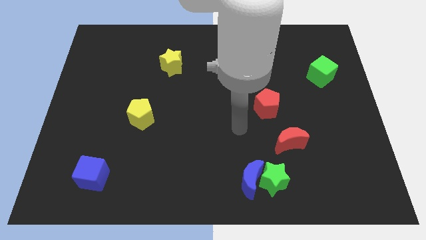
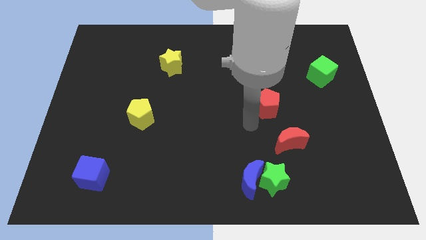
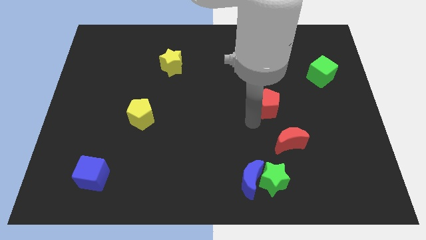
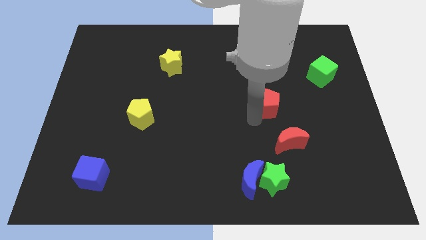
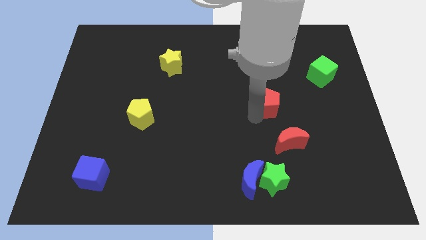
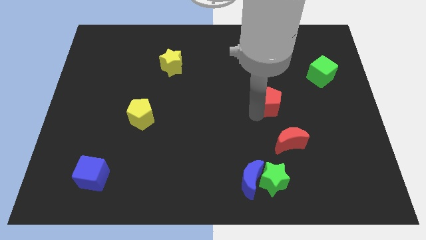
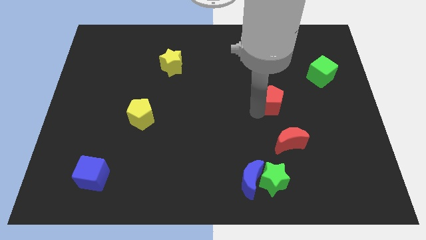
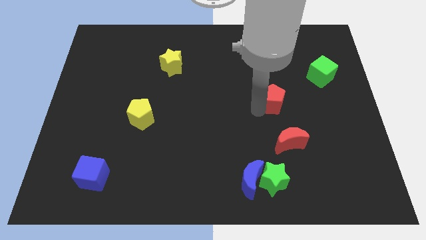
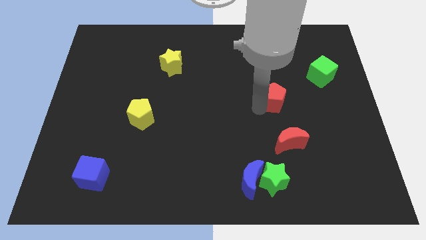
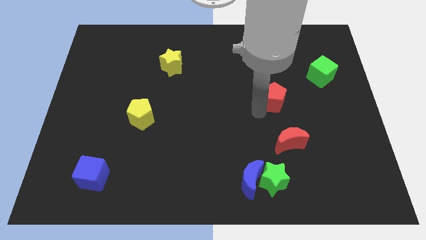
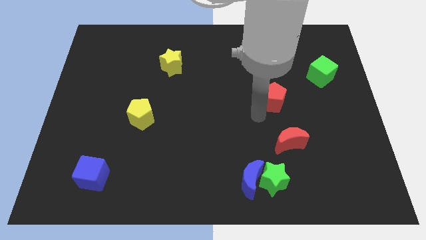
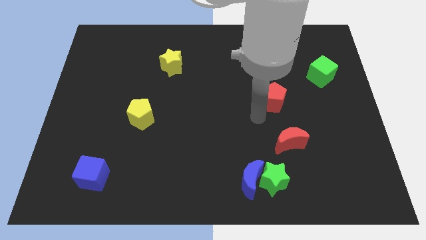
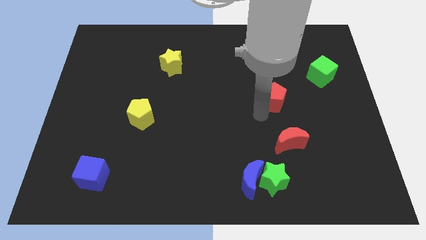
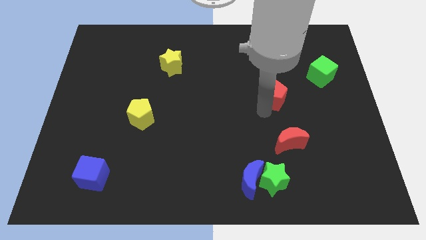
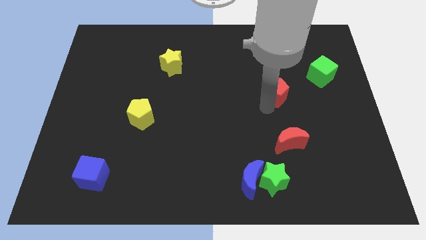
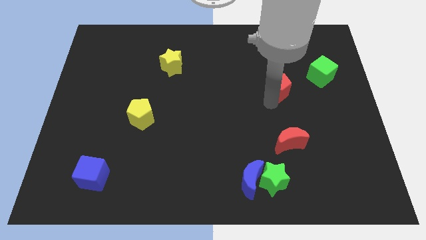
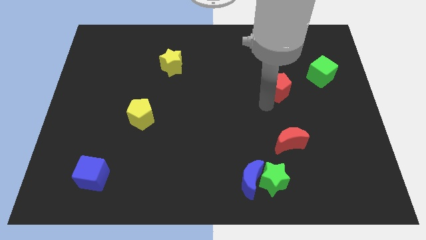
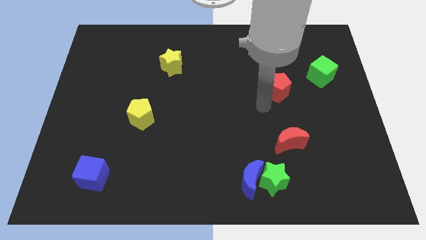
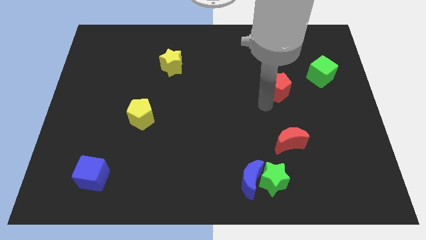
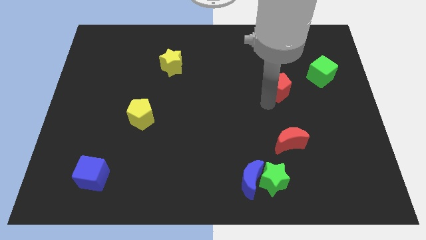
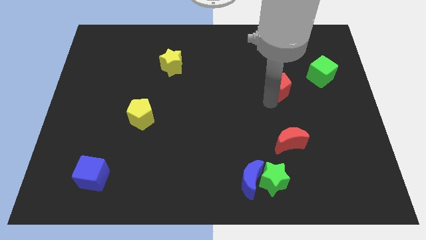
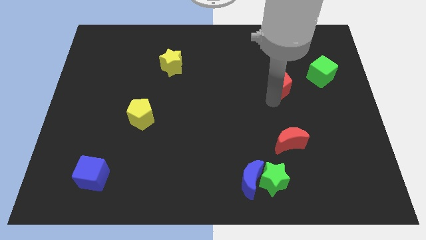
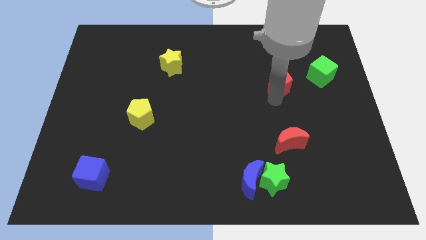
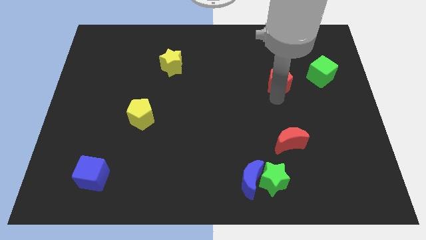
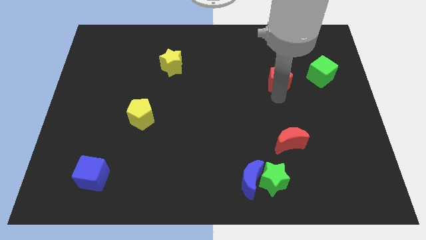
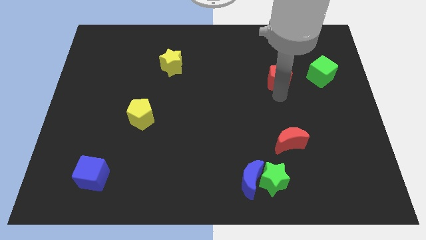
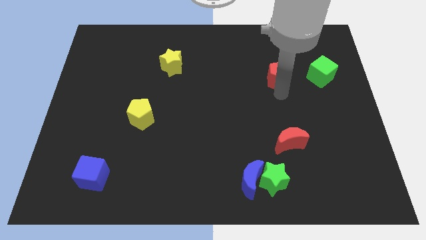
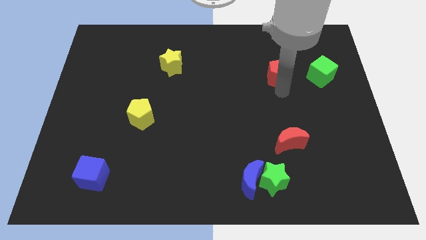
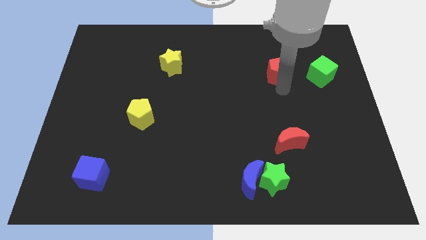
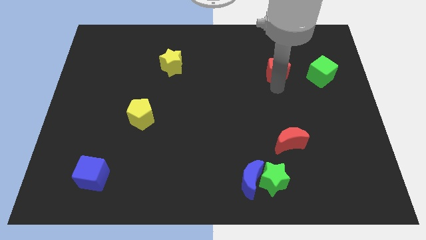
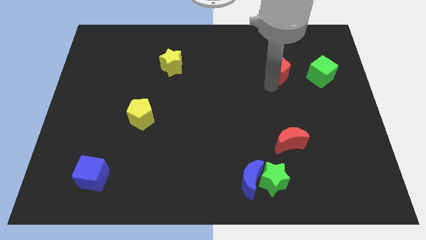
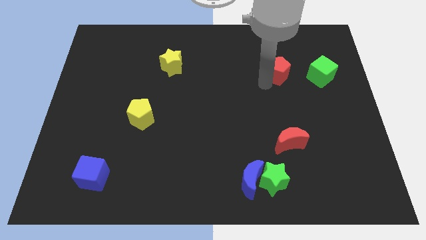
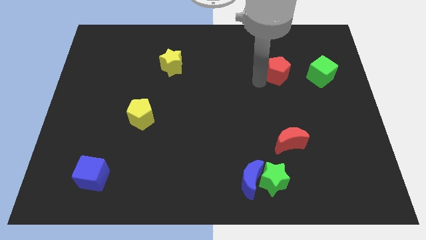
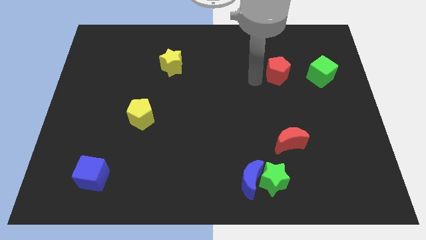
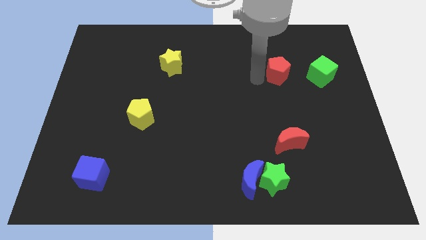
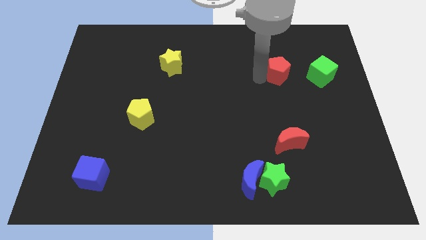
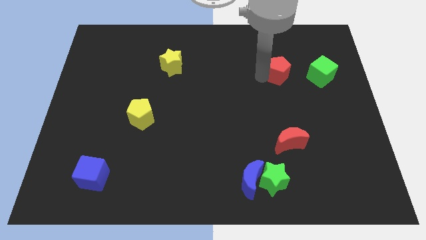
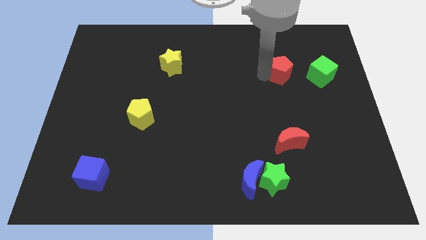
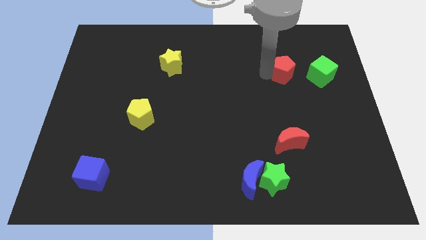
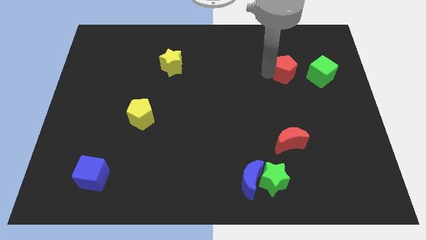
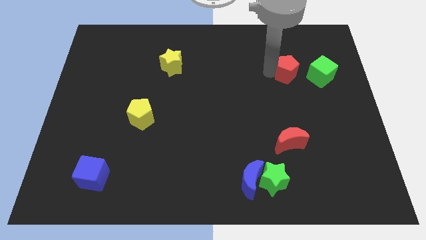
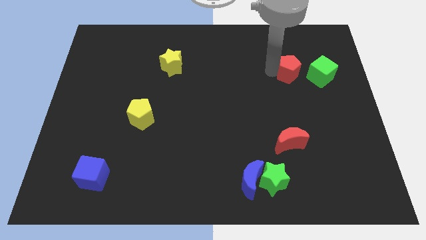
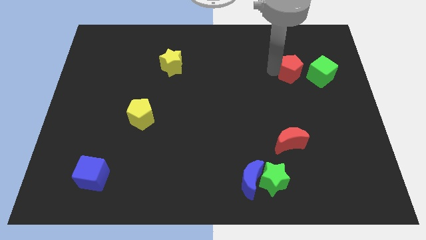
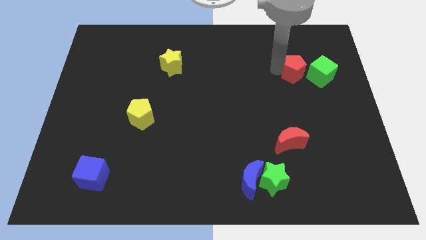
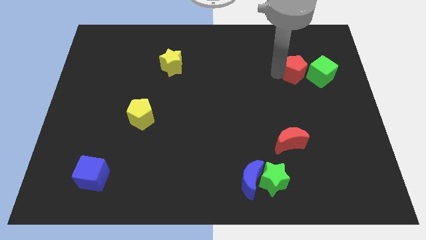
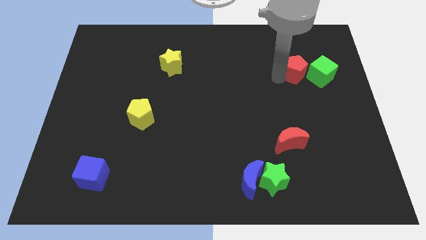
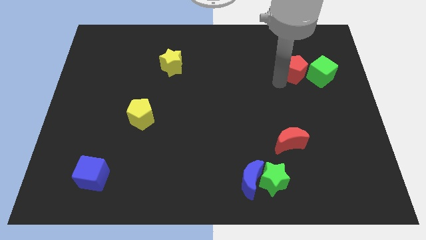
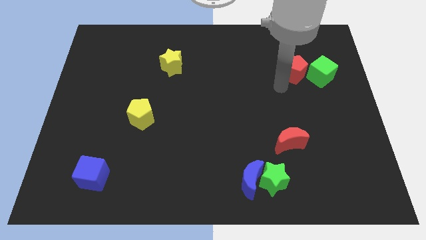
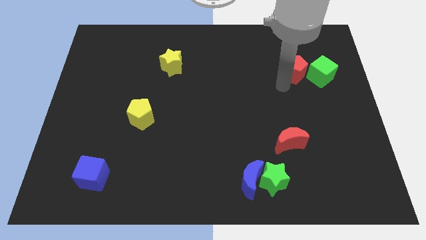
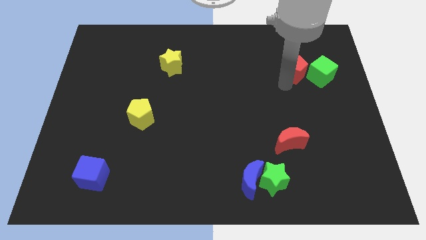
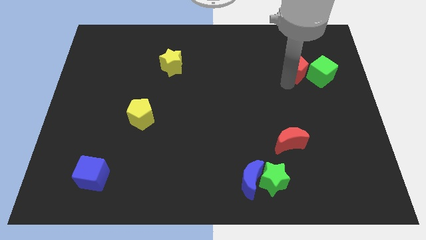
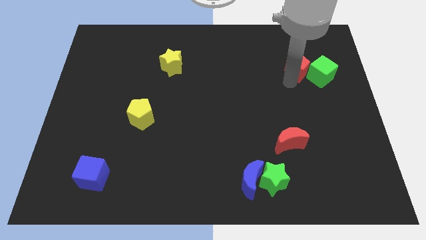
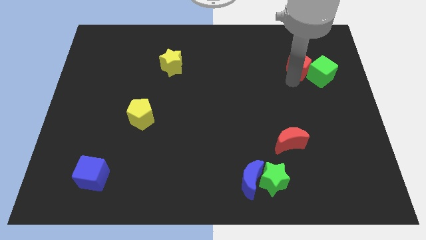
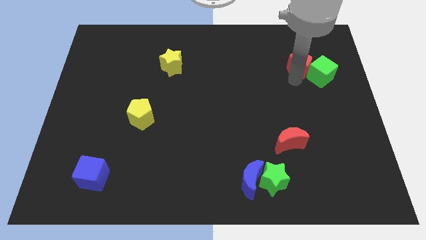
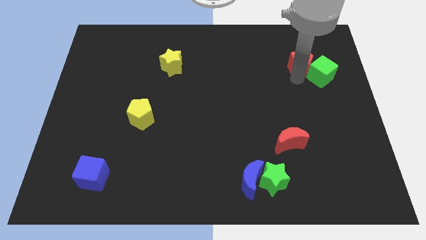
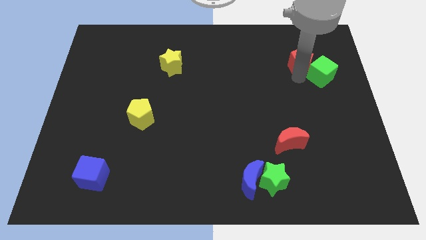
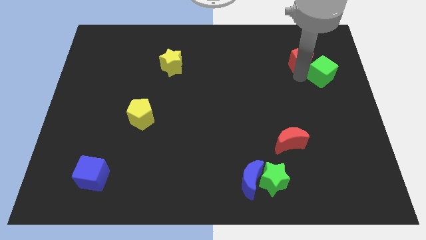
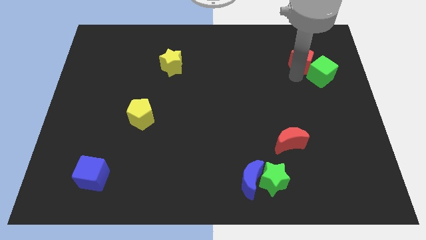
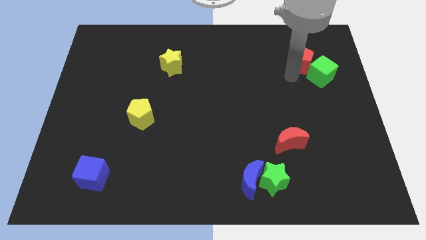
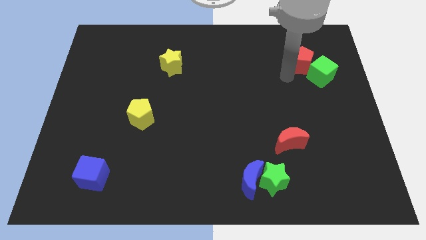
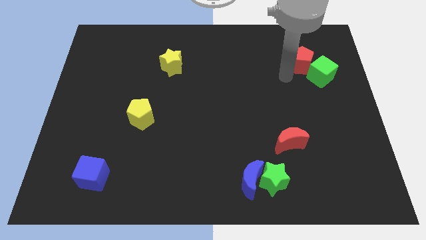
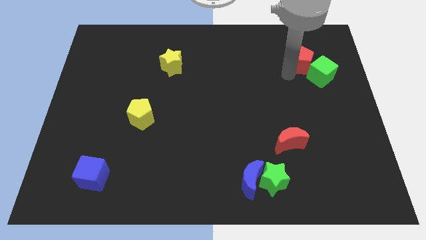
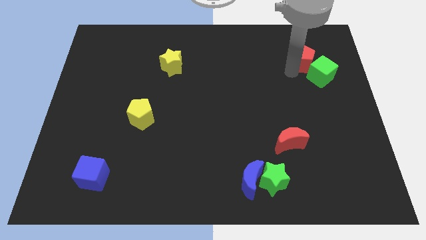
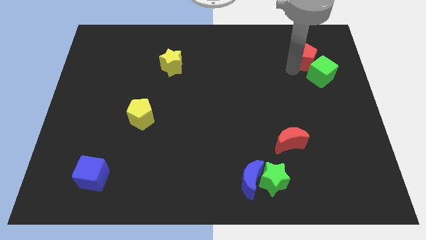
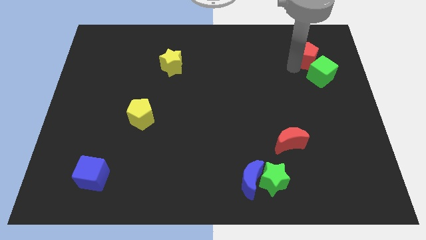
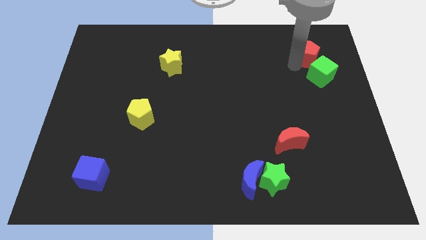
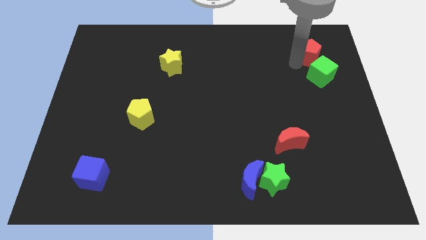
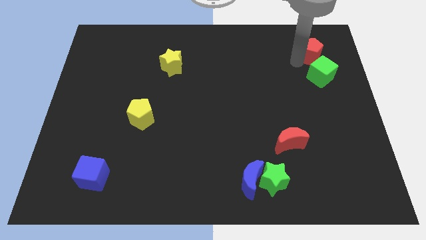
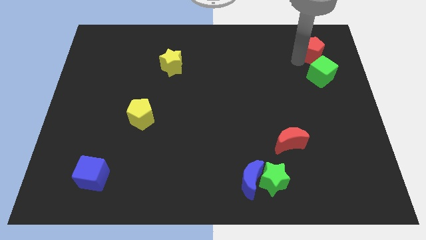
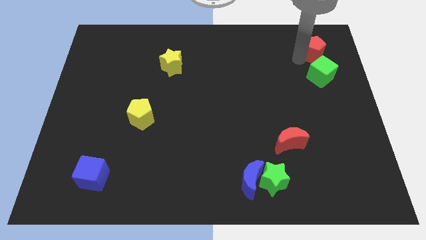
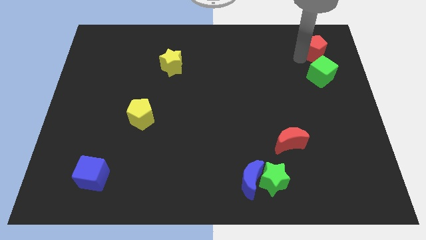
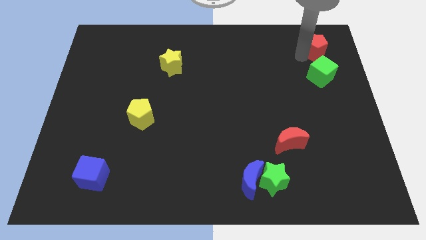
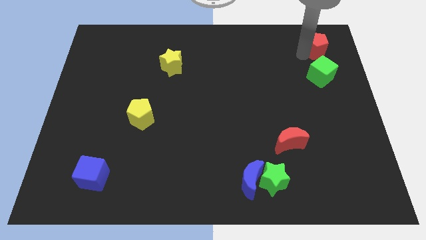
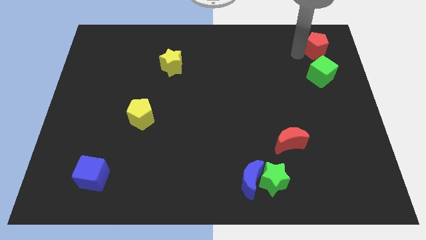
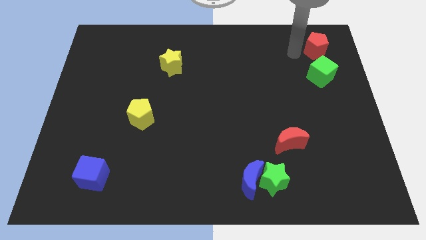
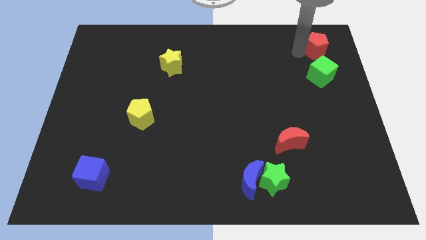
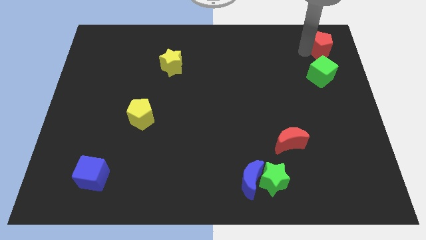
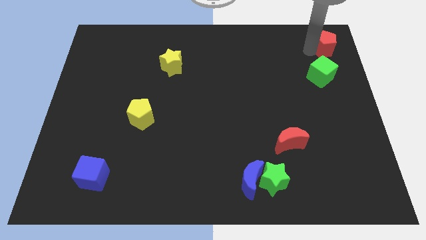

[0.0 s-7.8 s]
slide the red pentagon to the top right
